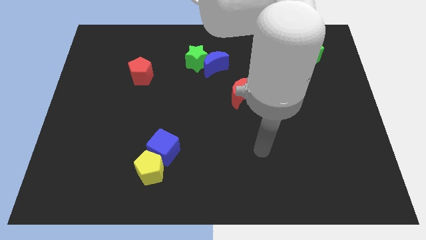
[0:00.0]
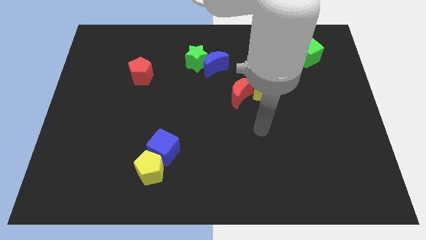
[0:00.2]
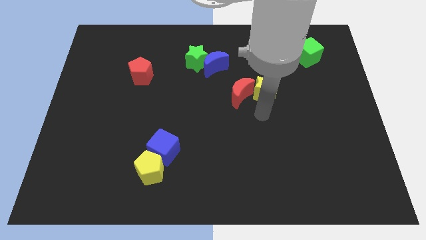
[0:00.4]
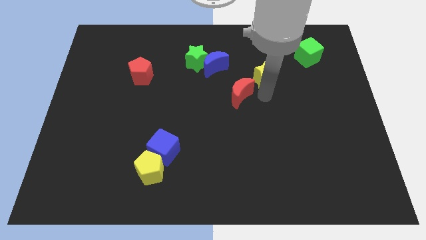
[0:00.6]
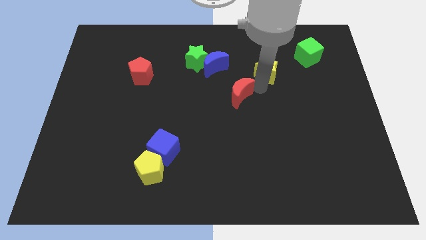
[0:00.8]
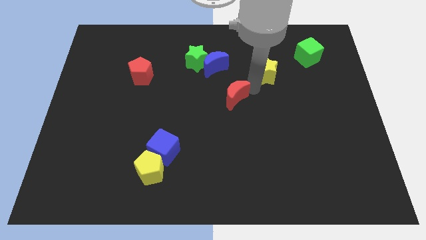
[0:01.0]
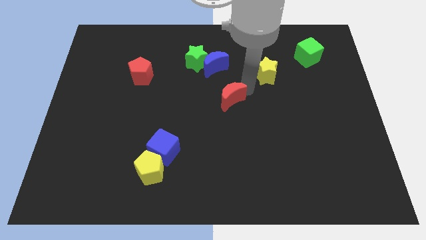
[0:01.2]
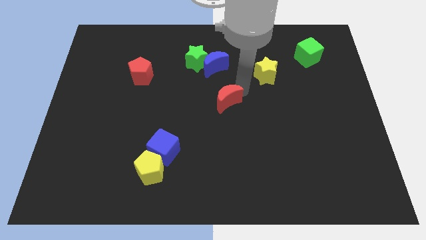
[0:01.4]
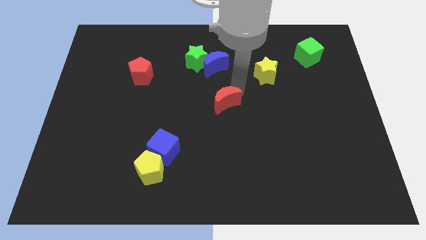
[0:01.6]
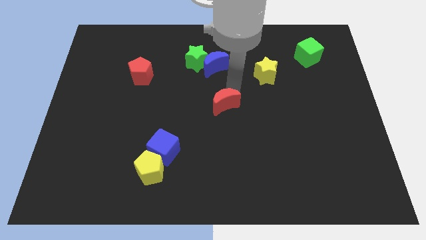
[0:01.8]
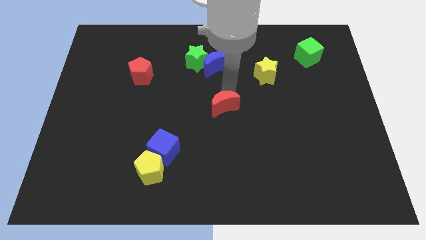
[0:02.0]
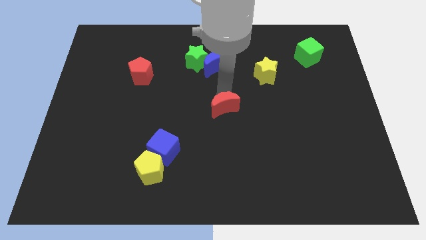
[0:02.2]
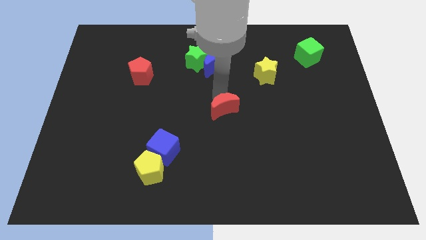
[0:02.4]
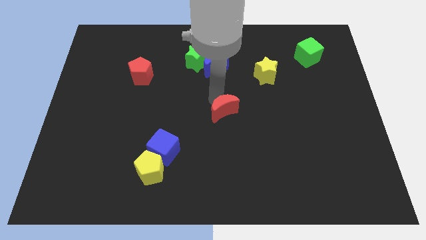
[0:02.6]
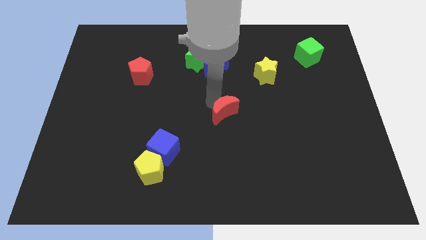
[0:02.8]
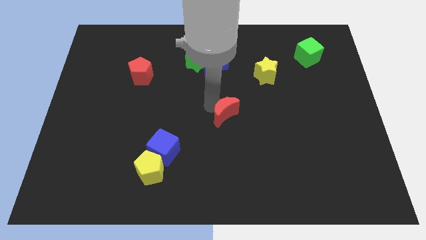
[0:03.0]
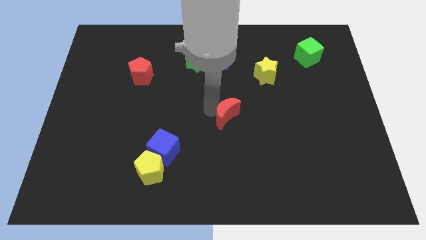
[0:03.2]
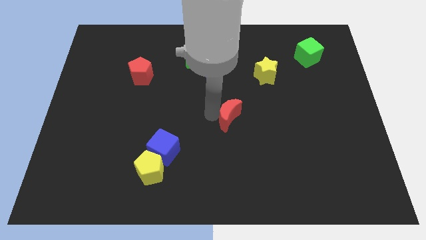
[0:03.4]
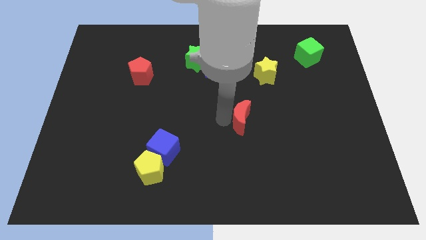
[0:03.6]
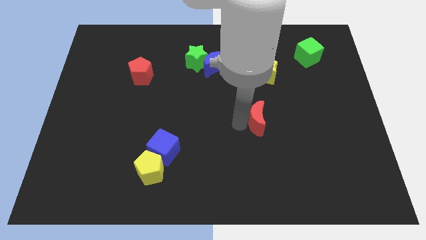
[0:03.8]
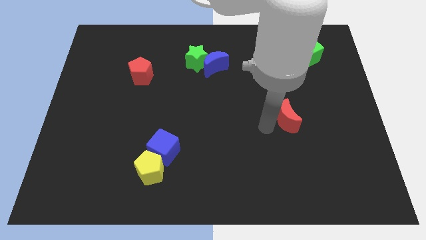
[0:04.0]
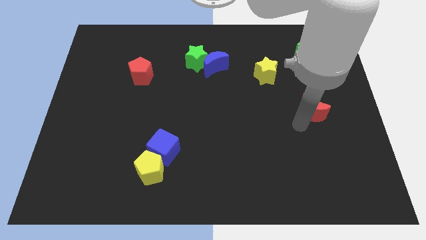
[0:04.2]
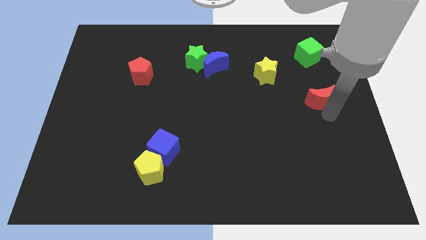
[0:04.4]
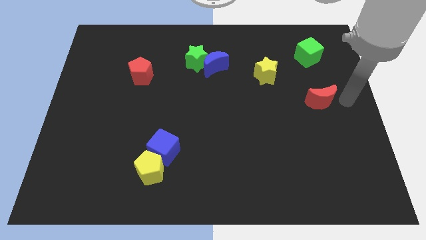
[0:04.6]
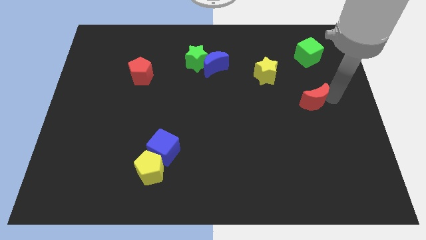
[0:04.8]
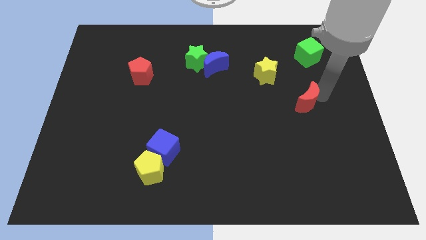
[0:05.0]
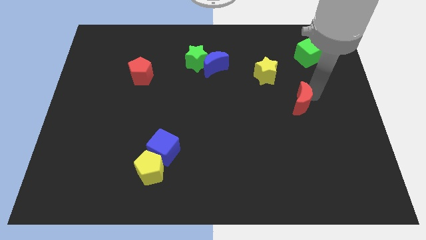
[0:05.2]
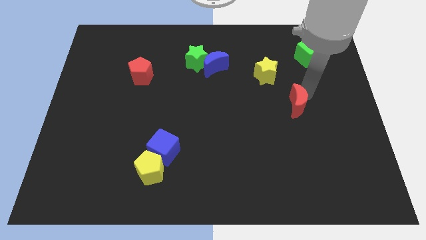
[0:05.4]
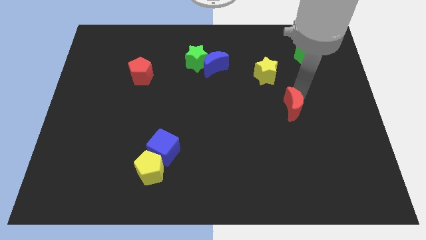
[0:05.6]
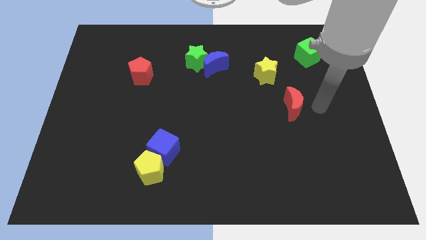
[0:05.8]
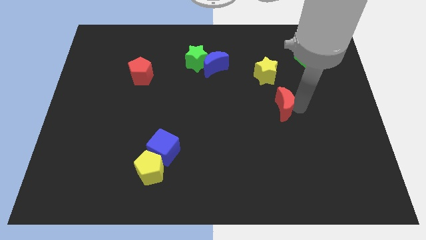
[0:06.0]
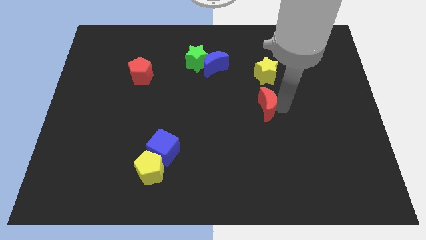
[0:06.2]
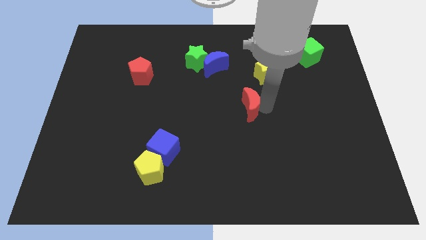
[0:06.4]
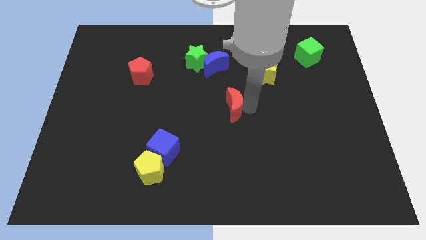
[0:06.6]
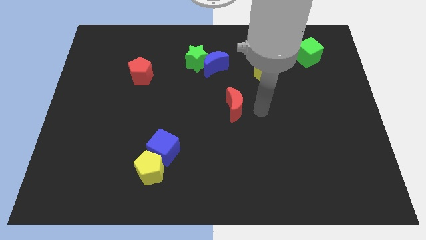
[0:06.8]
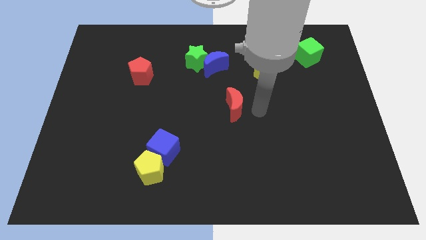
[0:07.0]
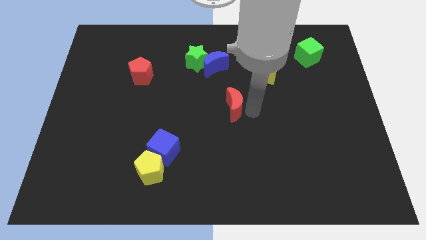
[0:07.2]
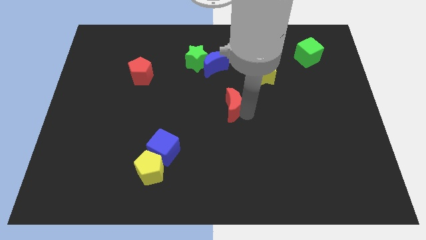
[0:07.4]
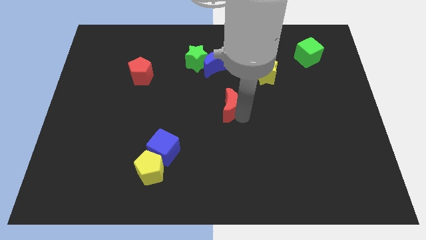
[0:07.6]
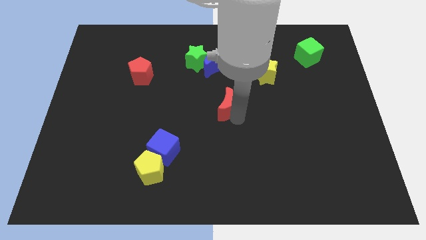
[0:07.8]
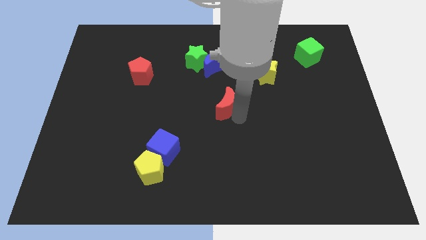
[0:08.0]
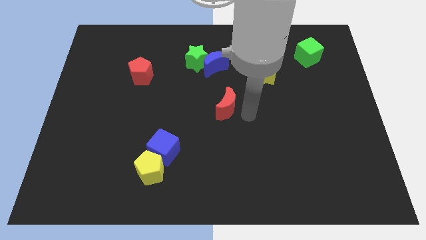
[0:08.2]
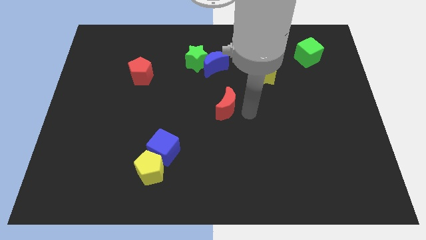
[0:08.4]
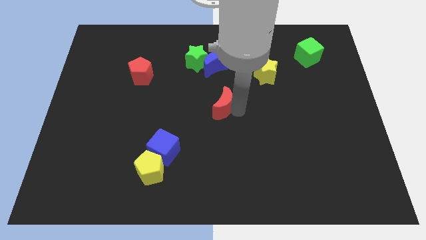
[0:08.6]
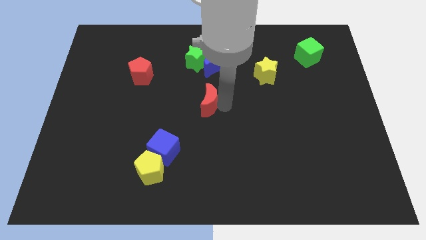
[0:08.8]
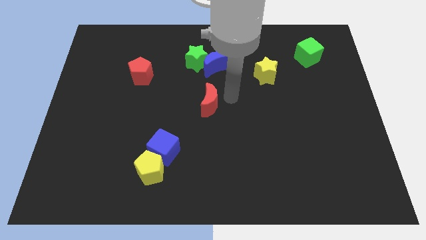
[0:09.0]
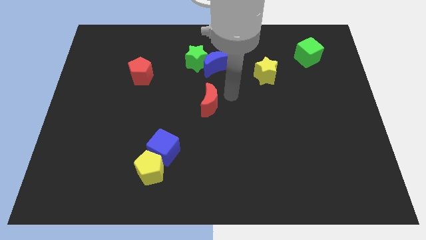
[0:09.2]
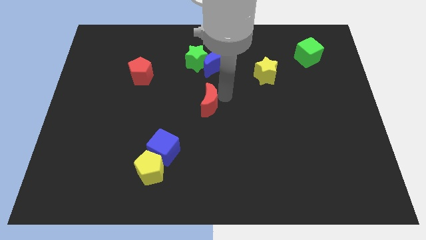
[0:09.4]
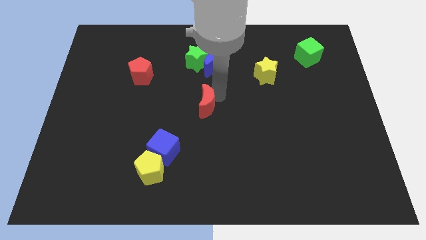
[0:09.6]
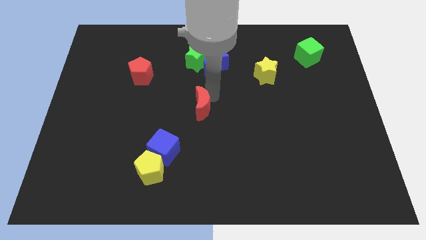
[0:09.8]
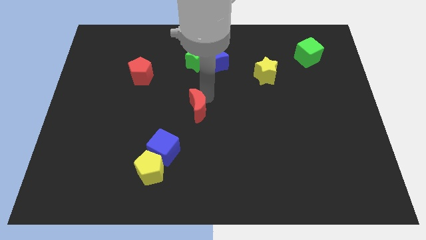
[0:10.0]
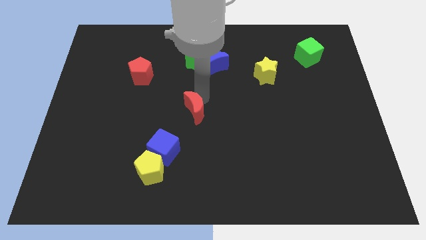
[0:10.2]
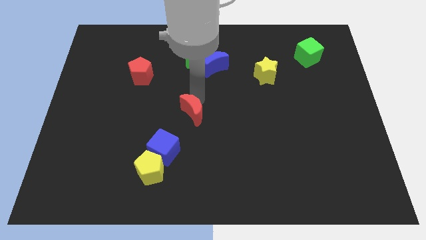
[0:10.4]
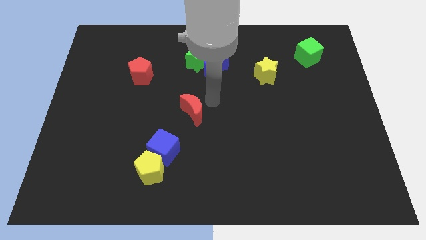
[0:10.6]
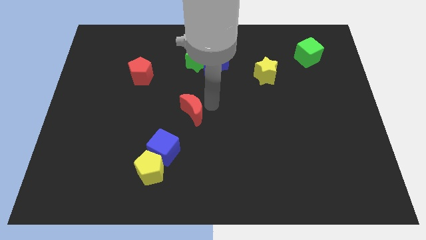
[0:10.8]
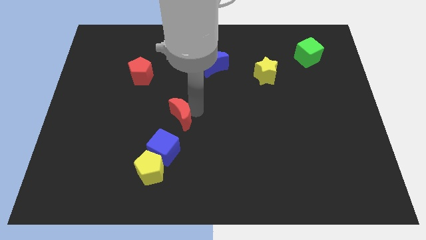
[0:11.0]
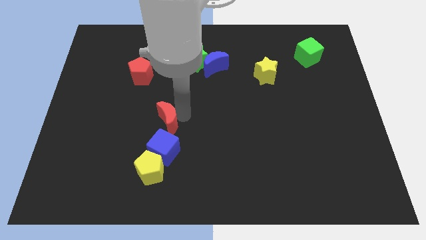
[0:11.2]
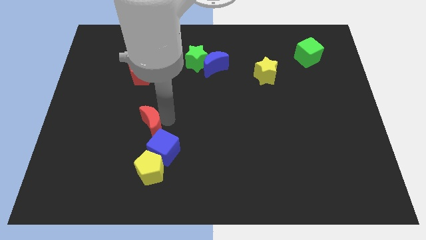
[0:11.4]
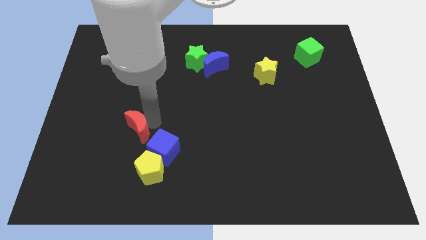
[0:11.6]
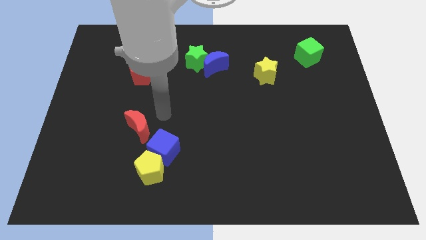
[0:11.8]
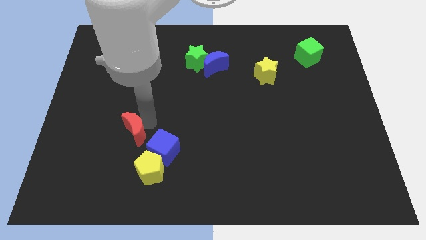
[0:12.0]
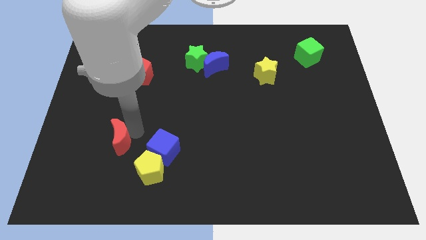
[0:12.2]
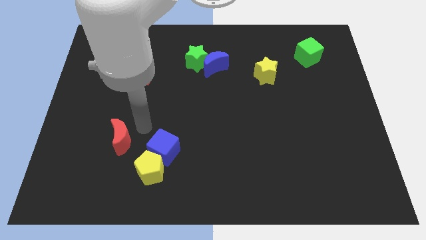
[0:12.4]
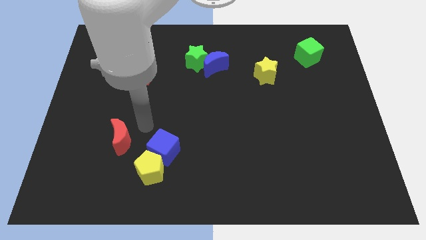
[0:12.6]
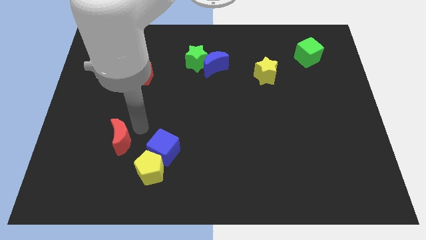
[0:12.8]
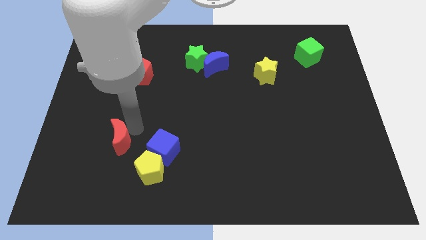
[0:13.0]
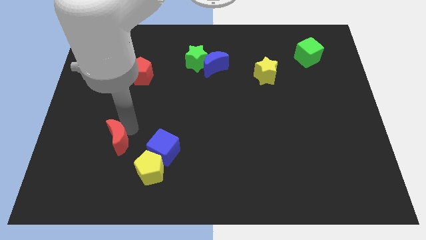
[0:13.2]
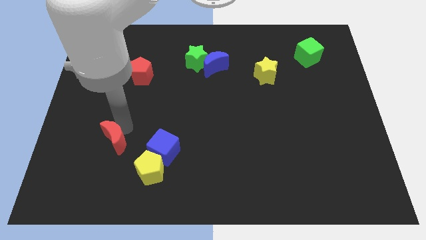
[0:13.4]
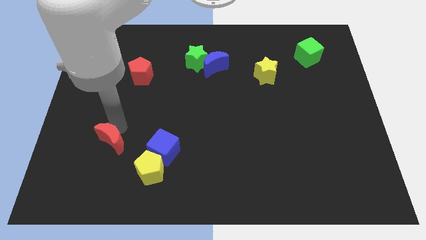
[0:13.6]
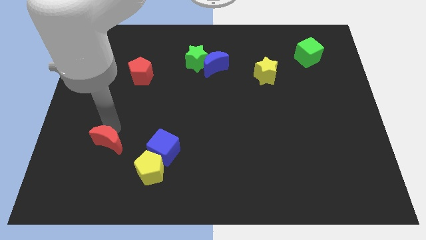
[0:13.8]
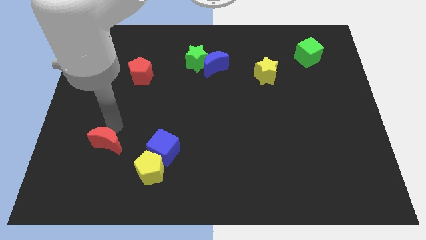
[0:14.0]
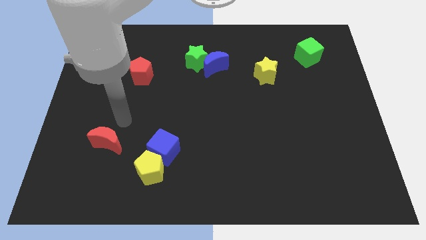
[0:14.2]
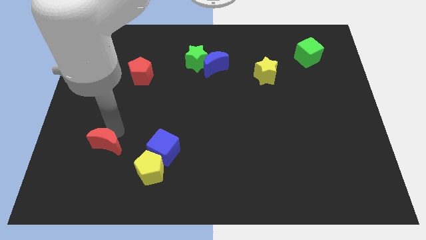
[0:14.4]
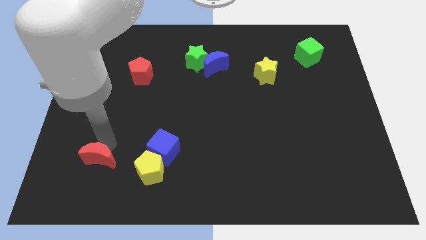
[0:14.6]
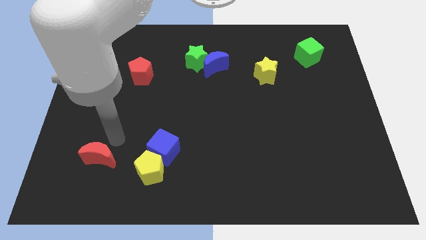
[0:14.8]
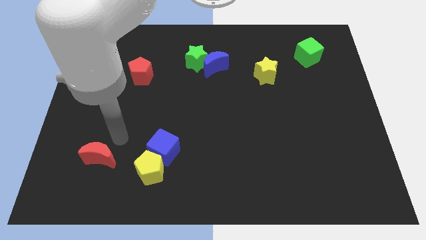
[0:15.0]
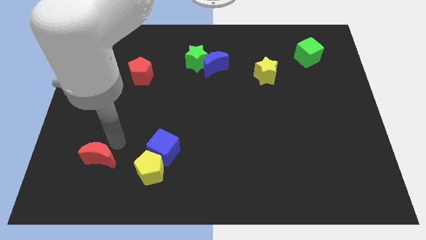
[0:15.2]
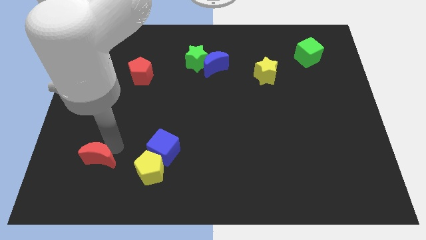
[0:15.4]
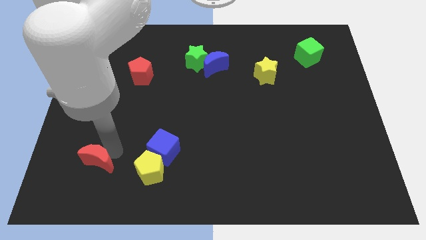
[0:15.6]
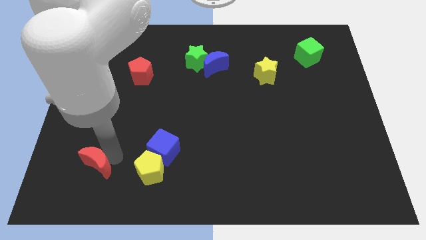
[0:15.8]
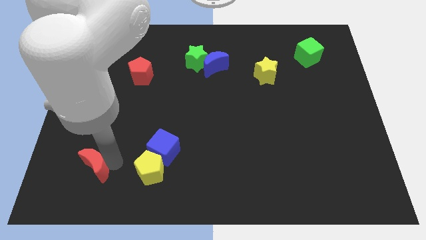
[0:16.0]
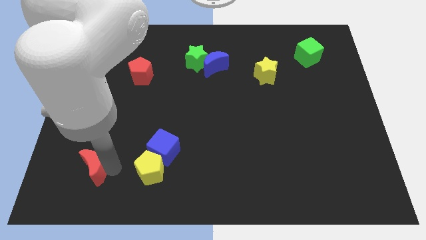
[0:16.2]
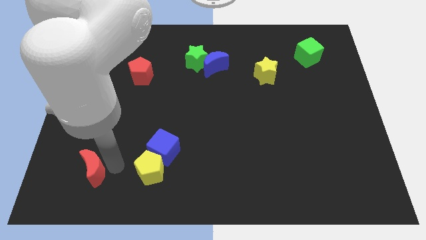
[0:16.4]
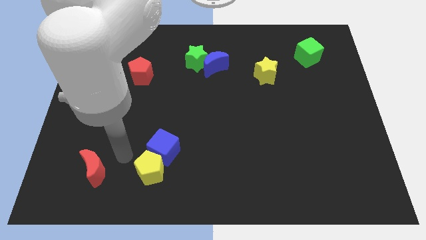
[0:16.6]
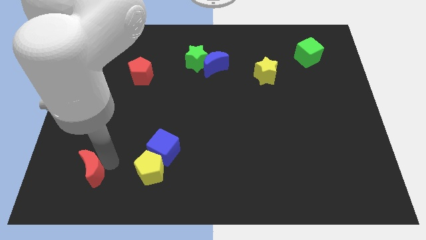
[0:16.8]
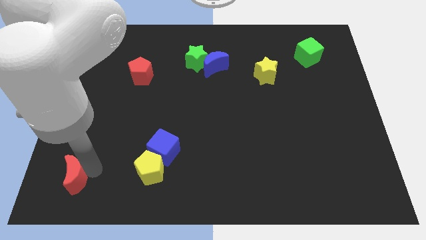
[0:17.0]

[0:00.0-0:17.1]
push the red moon to the bottom left of the board
